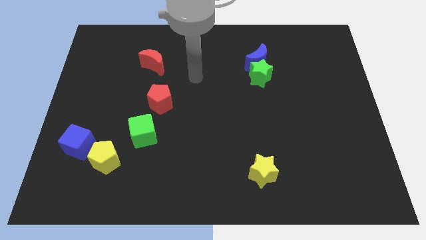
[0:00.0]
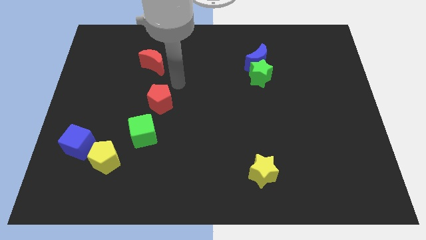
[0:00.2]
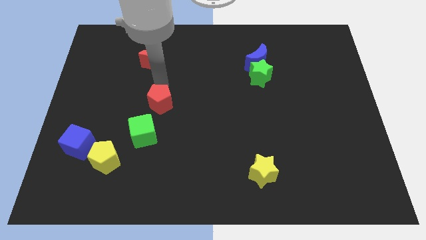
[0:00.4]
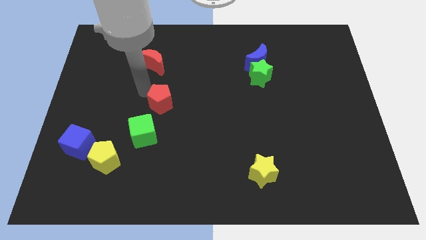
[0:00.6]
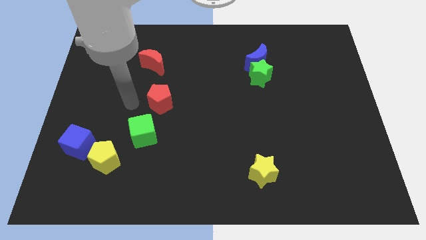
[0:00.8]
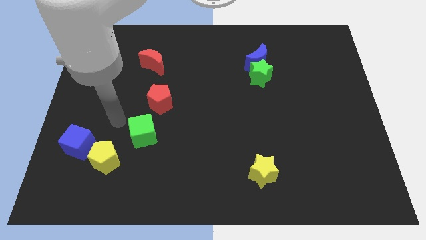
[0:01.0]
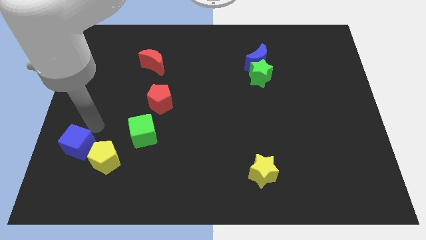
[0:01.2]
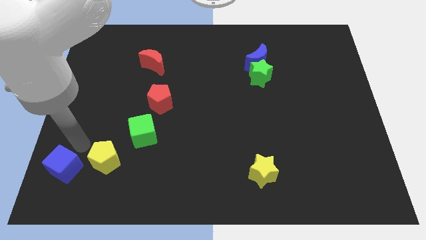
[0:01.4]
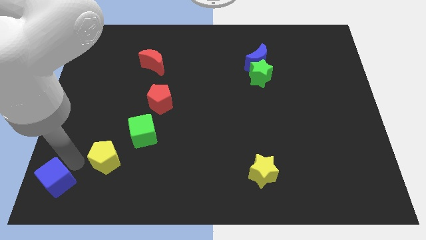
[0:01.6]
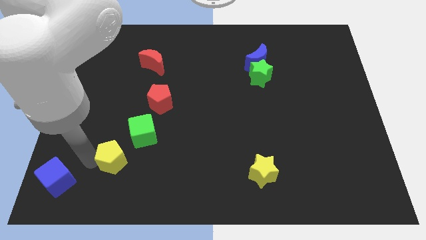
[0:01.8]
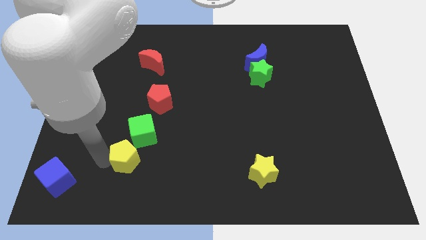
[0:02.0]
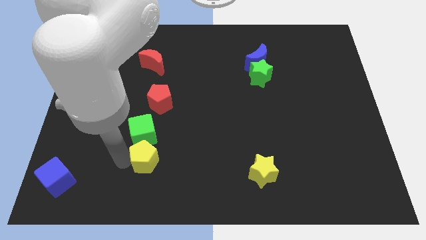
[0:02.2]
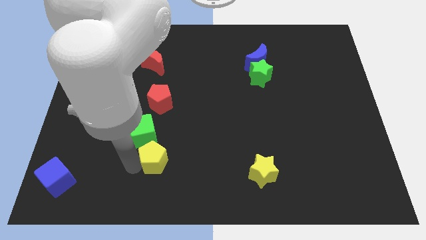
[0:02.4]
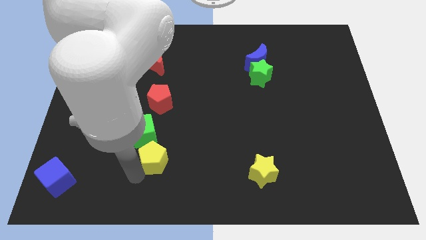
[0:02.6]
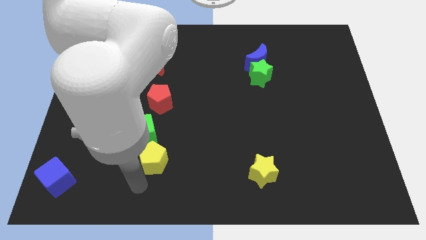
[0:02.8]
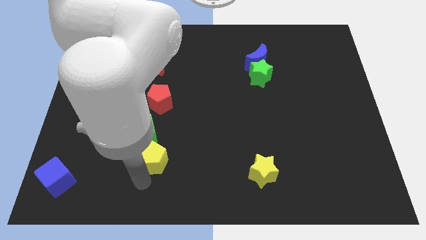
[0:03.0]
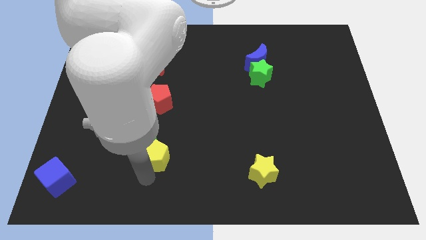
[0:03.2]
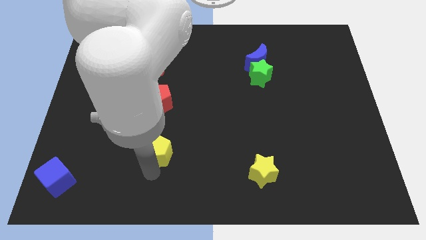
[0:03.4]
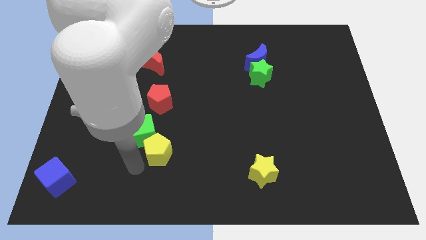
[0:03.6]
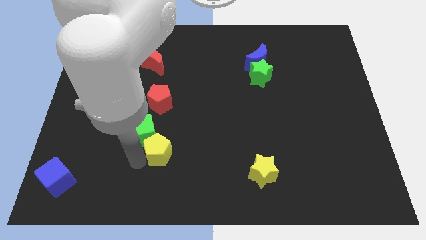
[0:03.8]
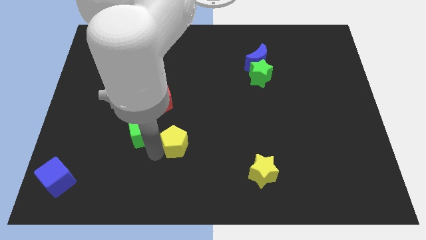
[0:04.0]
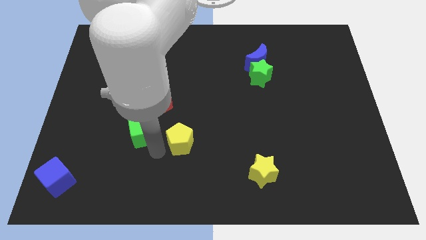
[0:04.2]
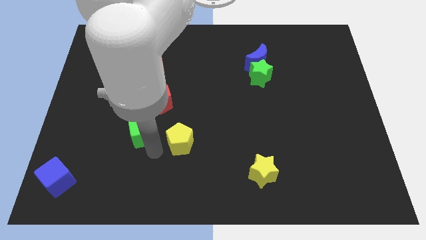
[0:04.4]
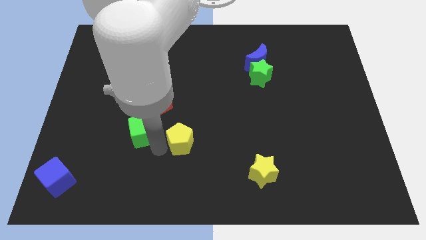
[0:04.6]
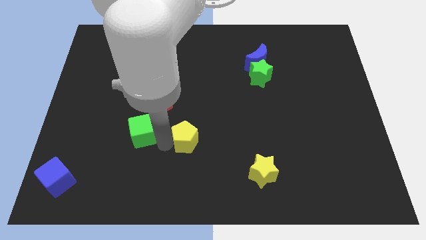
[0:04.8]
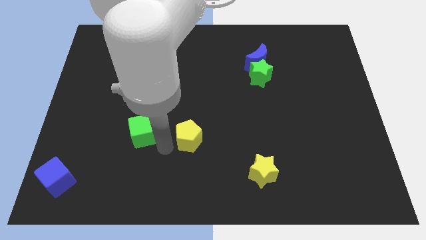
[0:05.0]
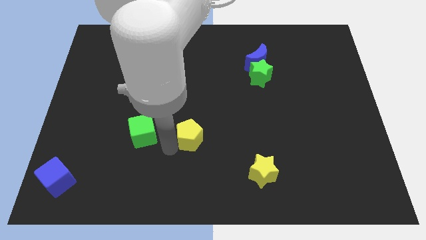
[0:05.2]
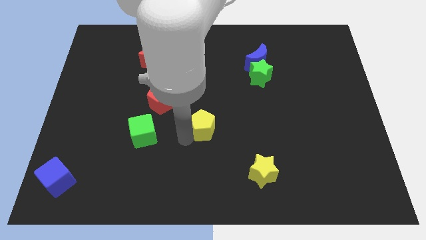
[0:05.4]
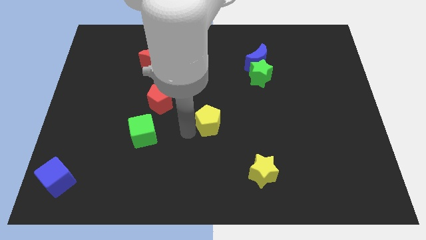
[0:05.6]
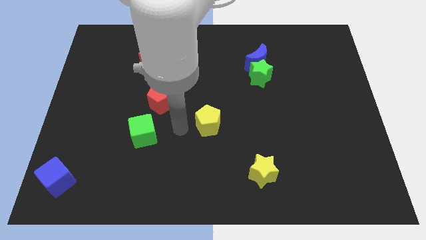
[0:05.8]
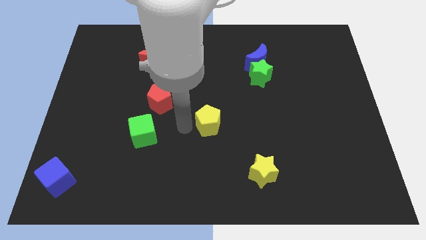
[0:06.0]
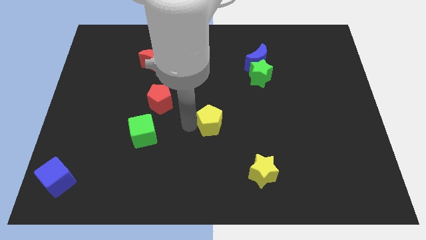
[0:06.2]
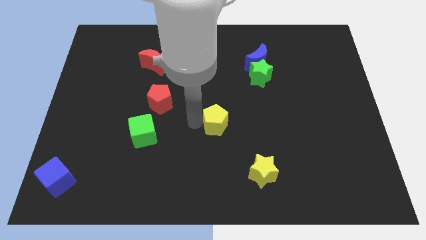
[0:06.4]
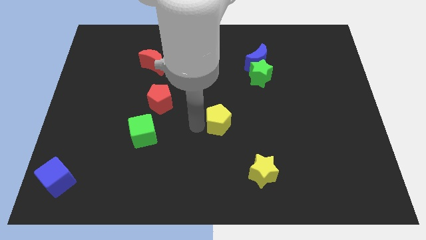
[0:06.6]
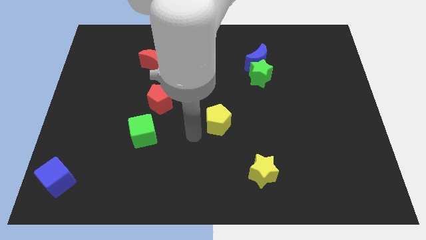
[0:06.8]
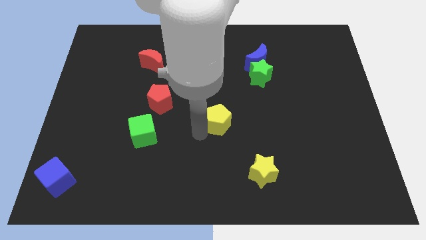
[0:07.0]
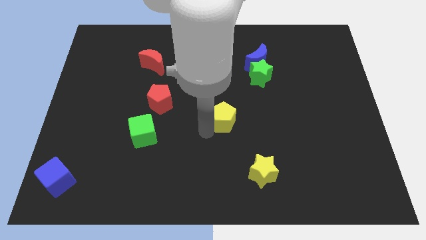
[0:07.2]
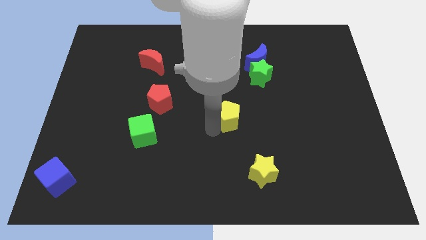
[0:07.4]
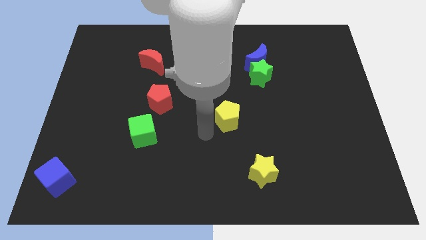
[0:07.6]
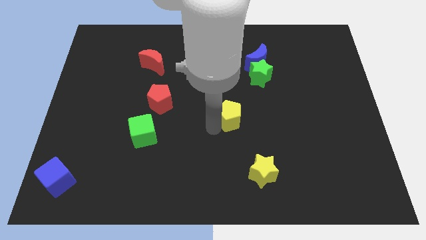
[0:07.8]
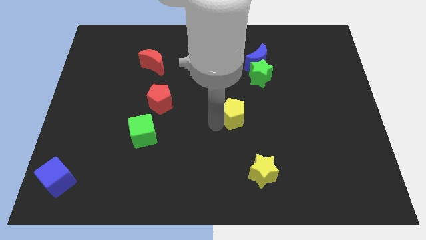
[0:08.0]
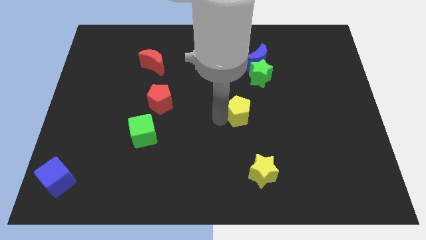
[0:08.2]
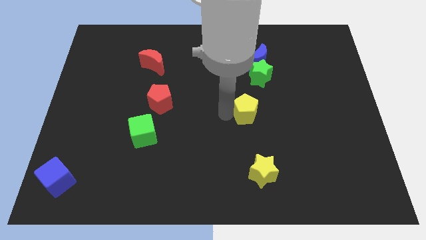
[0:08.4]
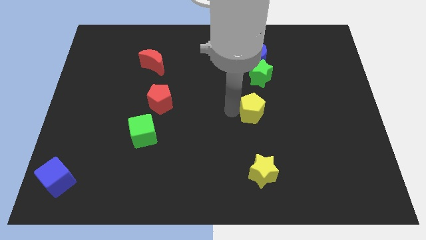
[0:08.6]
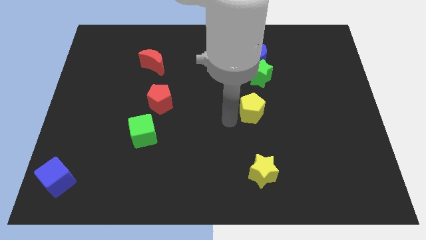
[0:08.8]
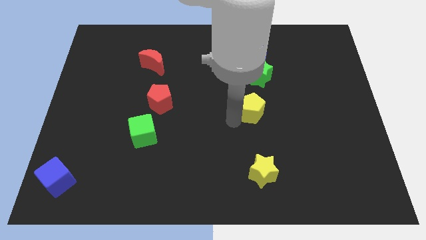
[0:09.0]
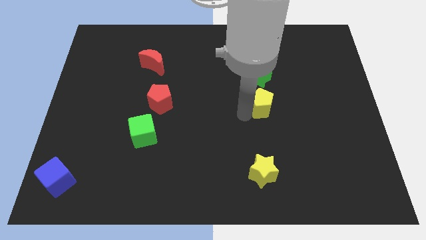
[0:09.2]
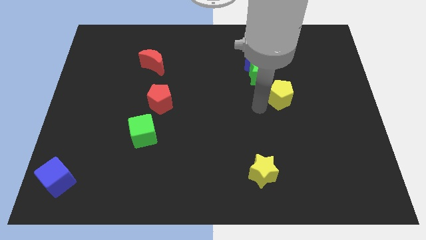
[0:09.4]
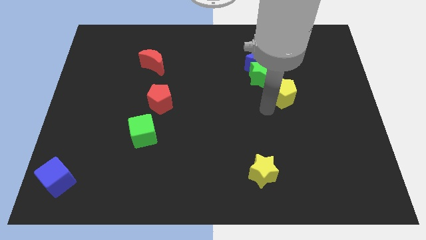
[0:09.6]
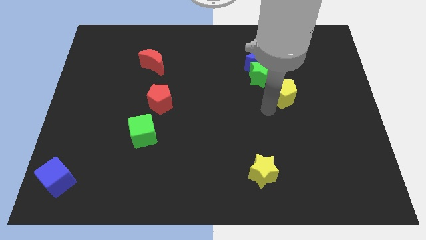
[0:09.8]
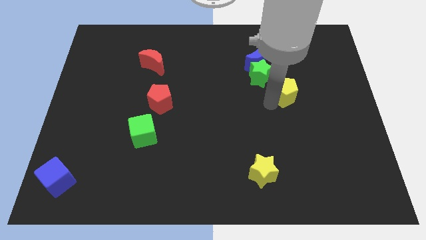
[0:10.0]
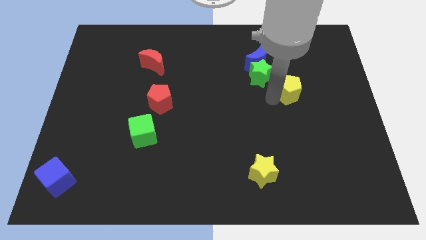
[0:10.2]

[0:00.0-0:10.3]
push the yellow pentagon right of the green star

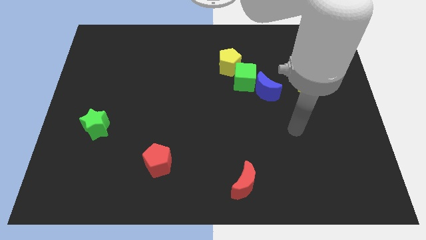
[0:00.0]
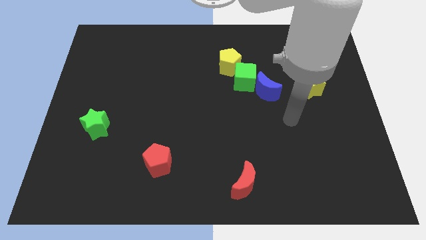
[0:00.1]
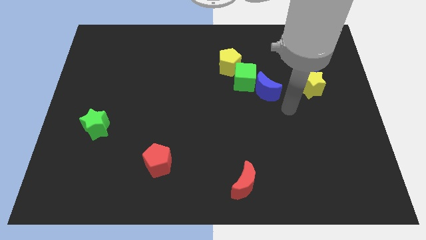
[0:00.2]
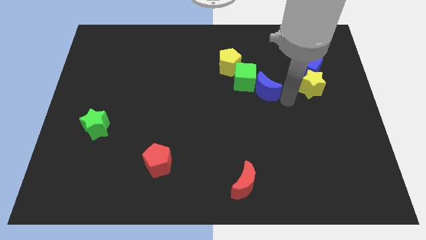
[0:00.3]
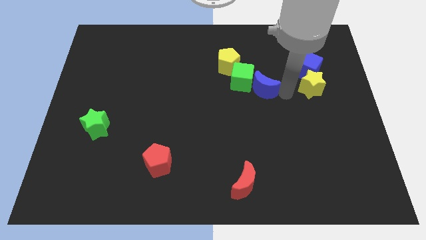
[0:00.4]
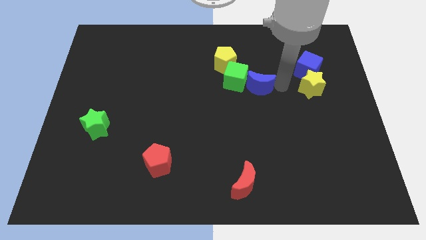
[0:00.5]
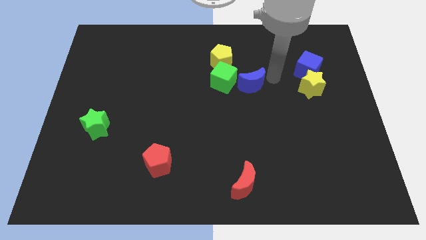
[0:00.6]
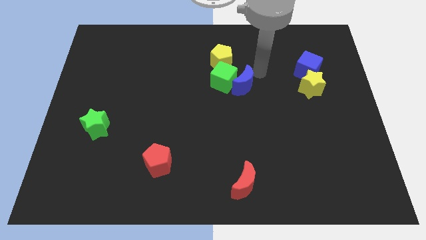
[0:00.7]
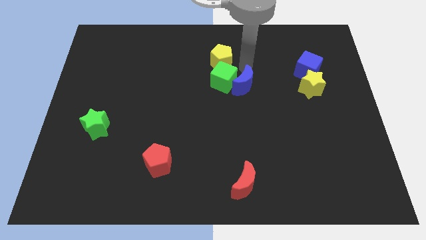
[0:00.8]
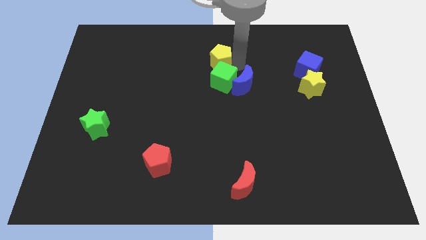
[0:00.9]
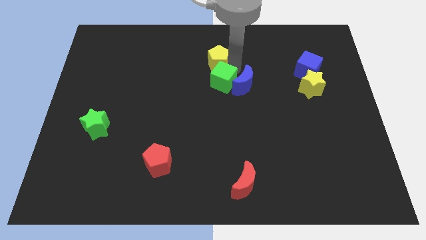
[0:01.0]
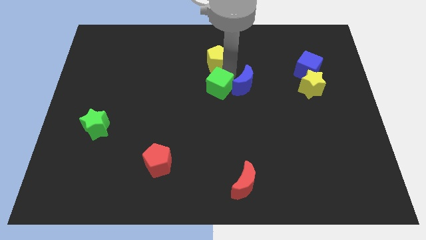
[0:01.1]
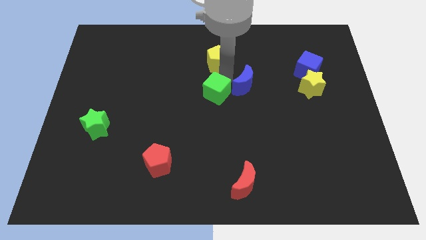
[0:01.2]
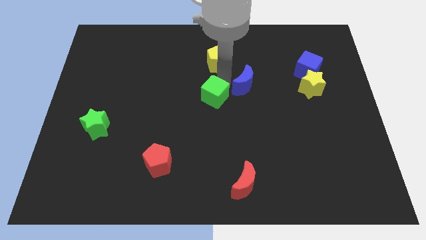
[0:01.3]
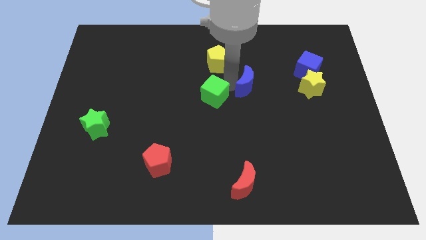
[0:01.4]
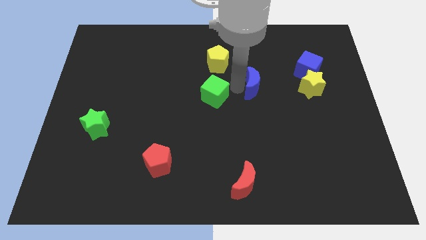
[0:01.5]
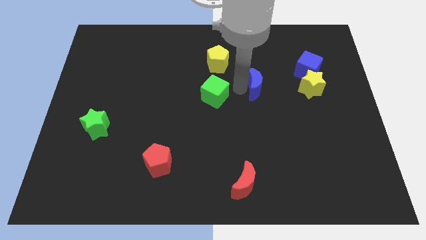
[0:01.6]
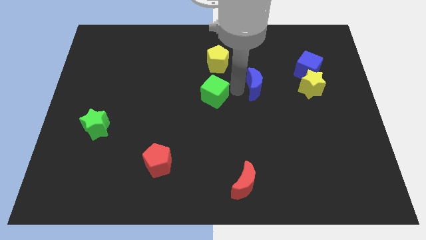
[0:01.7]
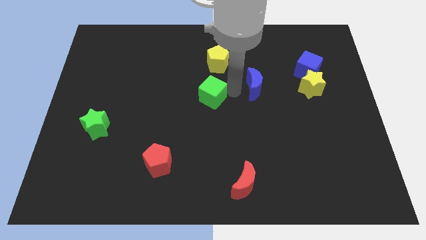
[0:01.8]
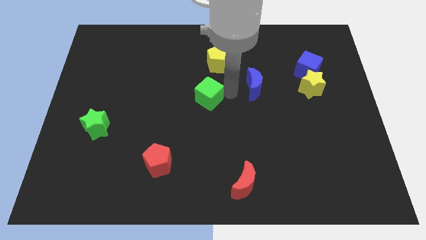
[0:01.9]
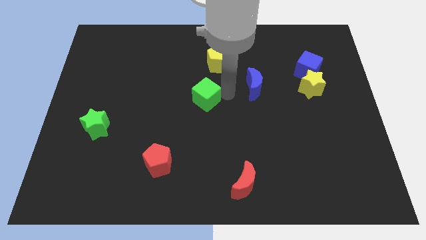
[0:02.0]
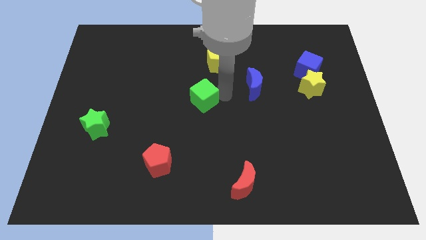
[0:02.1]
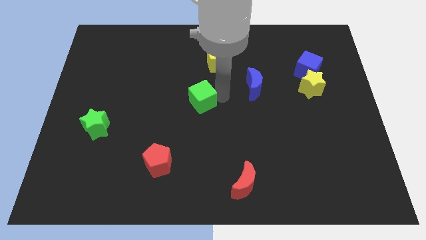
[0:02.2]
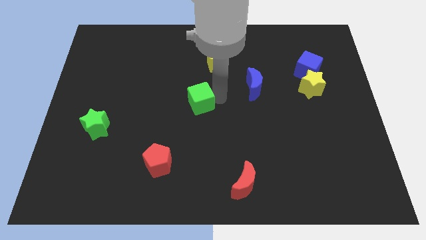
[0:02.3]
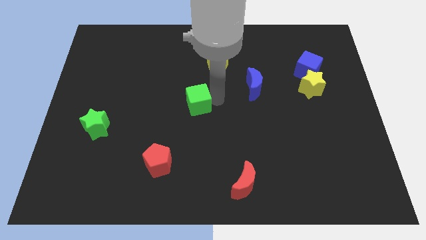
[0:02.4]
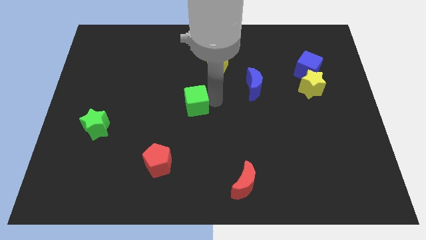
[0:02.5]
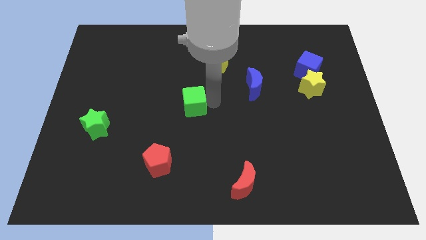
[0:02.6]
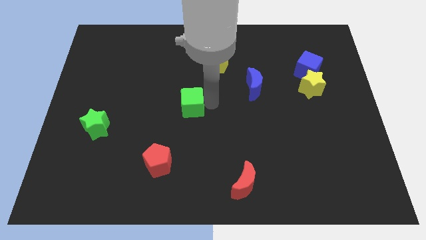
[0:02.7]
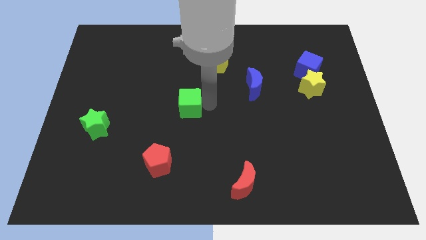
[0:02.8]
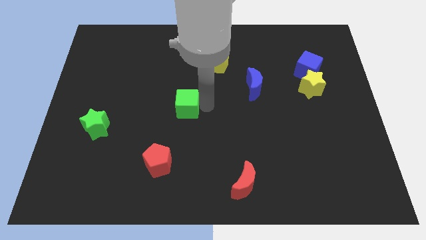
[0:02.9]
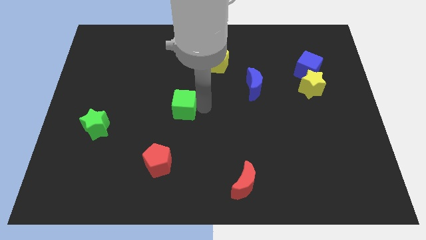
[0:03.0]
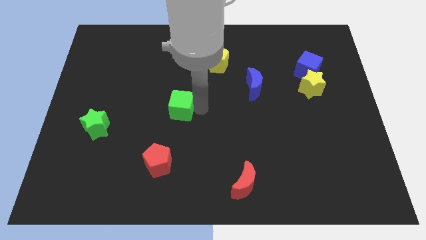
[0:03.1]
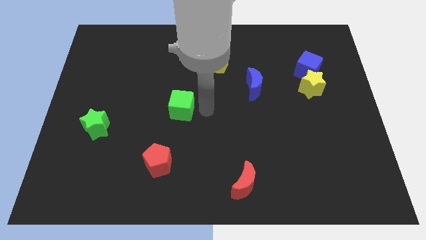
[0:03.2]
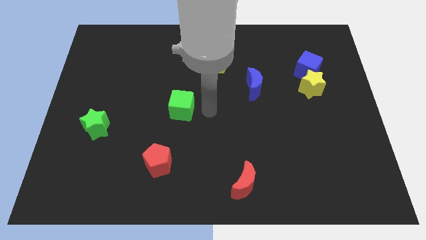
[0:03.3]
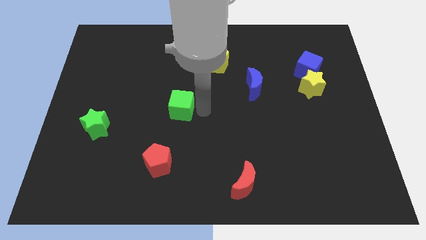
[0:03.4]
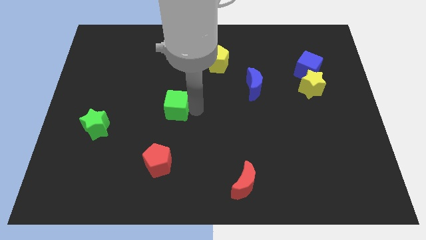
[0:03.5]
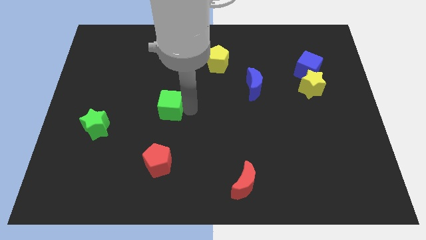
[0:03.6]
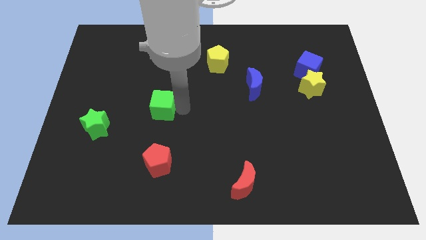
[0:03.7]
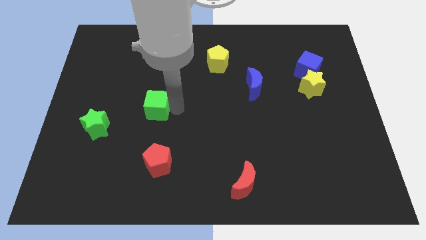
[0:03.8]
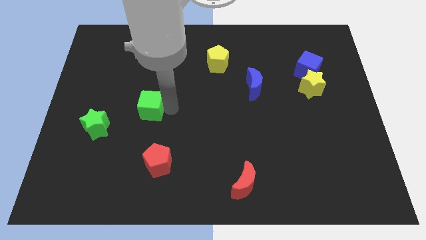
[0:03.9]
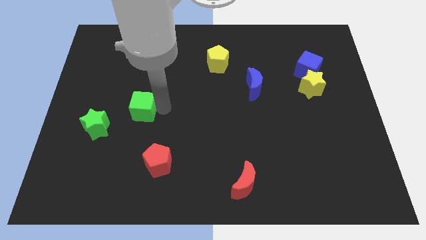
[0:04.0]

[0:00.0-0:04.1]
slide the green cube diagonally up and to the right of the green star
